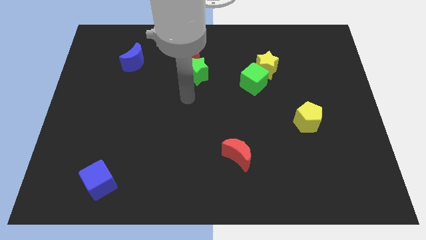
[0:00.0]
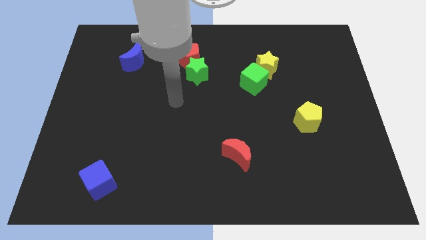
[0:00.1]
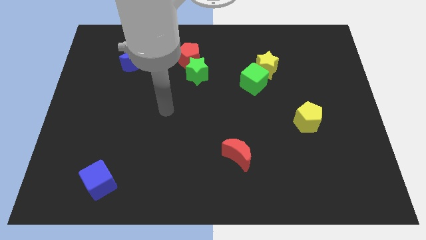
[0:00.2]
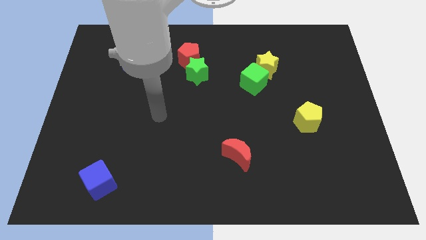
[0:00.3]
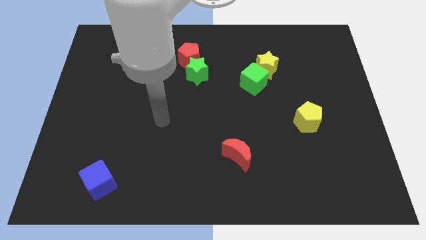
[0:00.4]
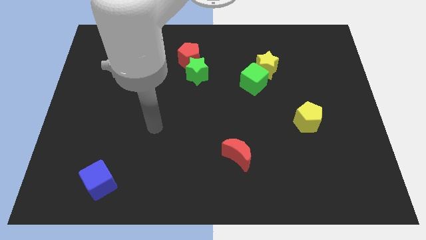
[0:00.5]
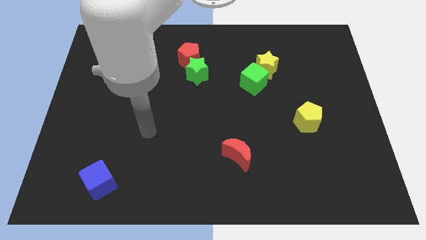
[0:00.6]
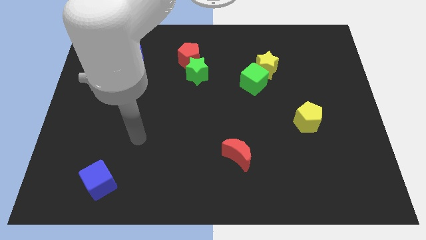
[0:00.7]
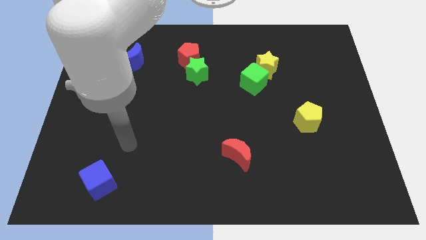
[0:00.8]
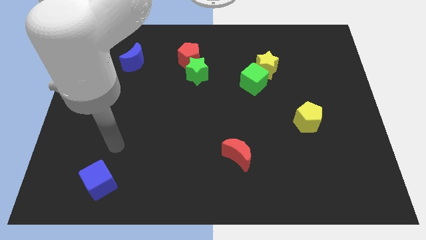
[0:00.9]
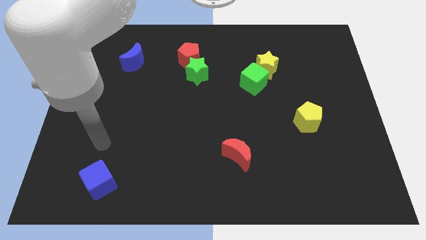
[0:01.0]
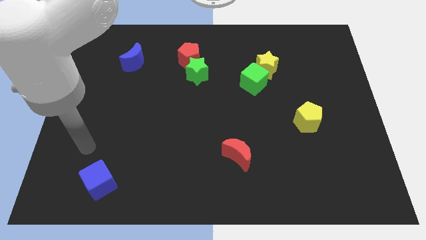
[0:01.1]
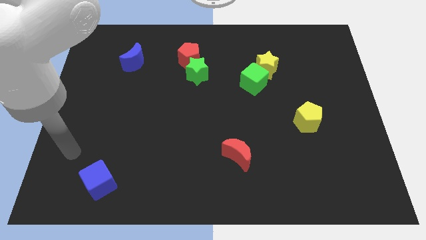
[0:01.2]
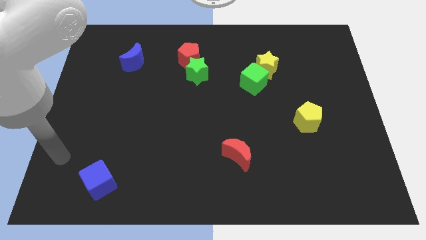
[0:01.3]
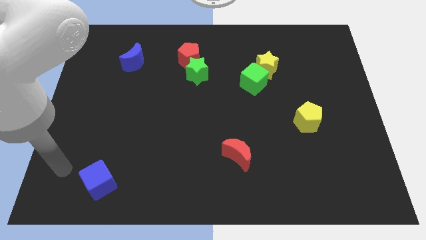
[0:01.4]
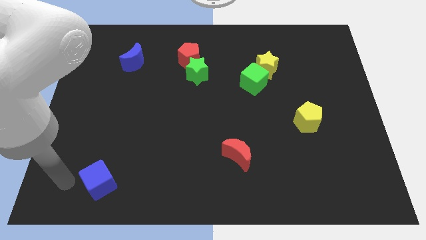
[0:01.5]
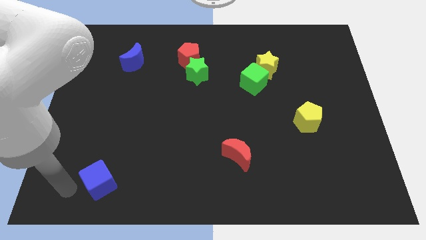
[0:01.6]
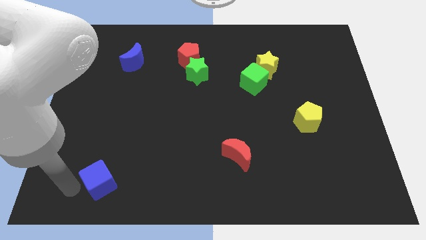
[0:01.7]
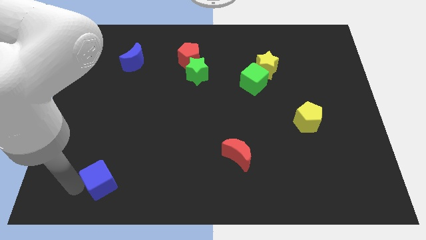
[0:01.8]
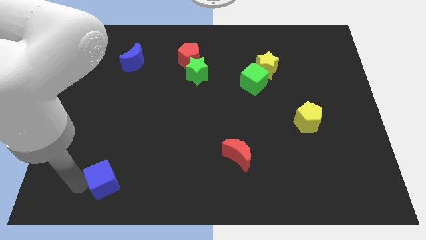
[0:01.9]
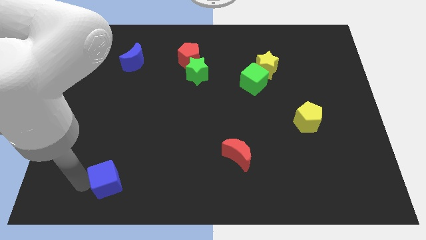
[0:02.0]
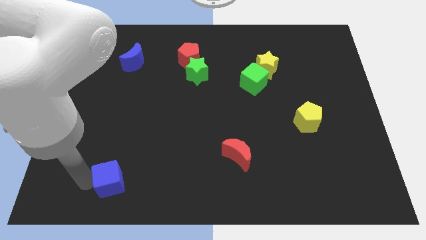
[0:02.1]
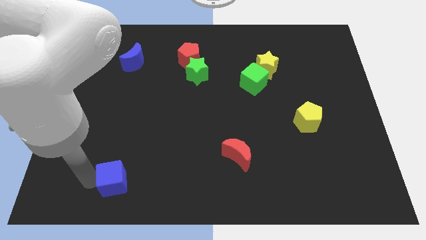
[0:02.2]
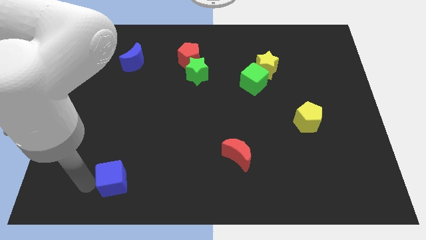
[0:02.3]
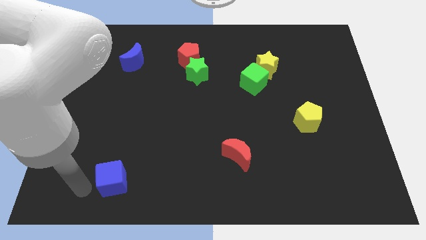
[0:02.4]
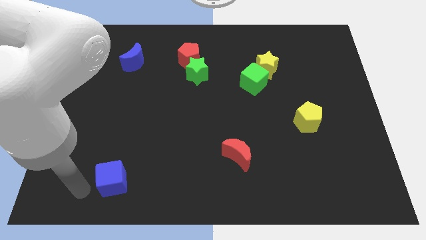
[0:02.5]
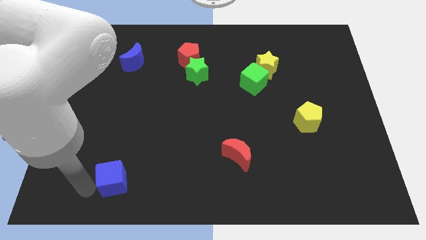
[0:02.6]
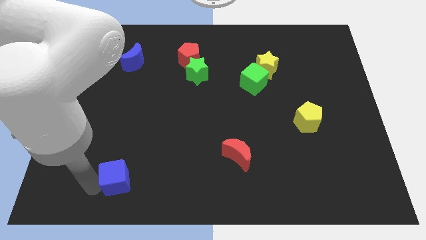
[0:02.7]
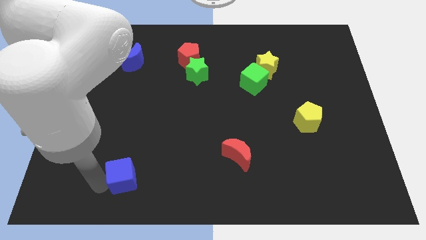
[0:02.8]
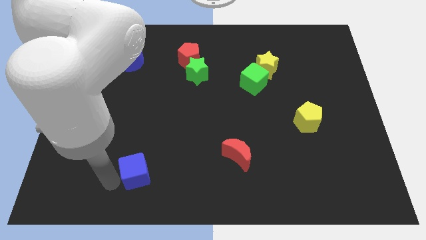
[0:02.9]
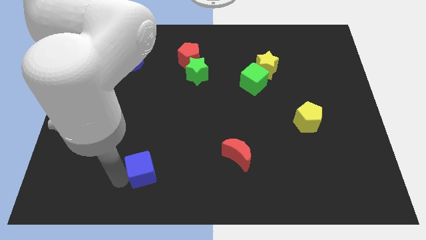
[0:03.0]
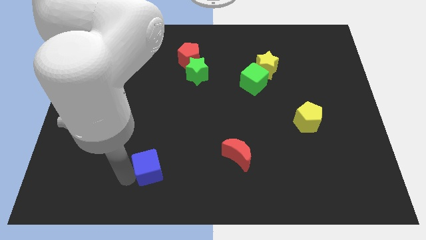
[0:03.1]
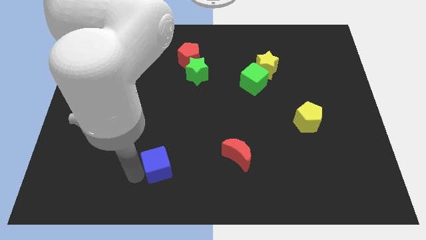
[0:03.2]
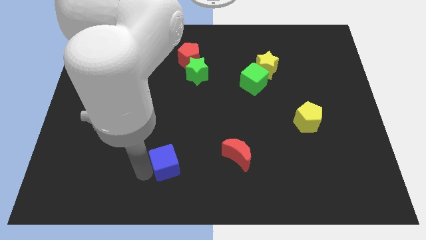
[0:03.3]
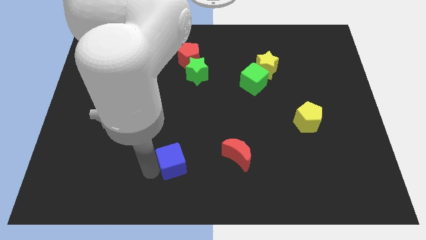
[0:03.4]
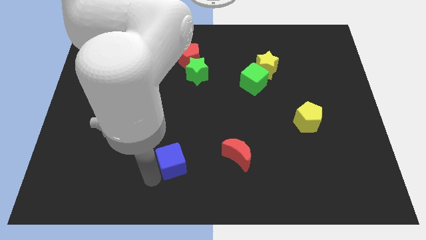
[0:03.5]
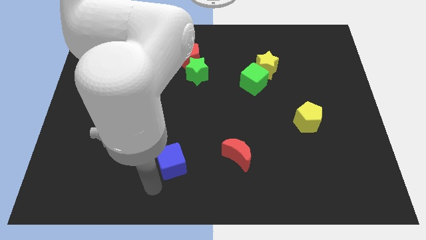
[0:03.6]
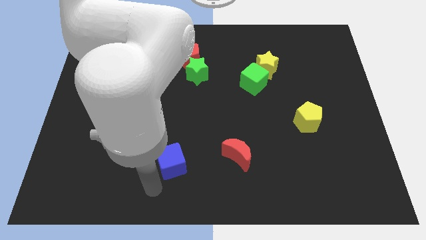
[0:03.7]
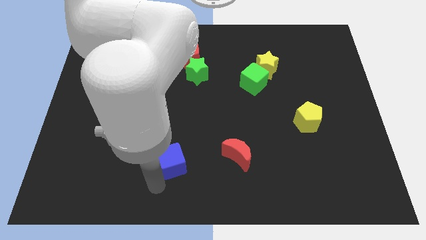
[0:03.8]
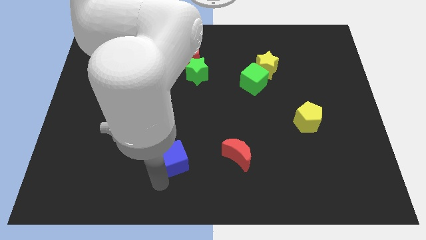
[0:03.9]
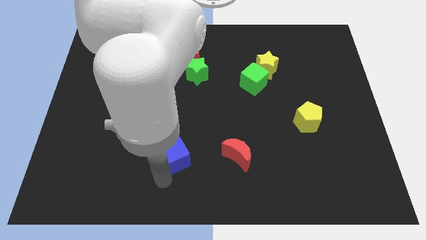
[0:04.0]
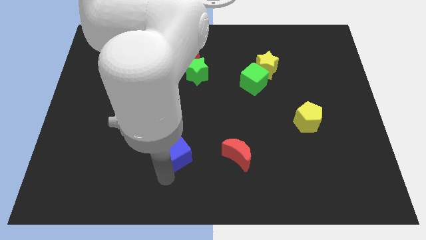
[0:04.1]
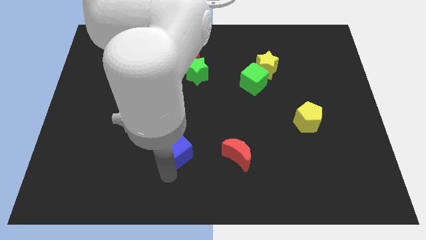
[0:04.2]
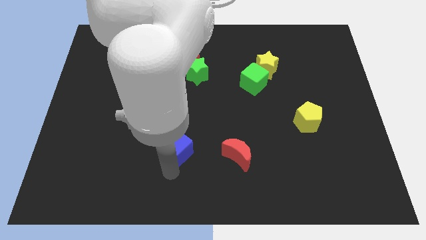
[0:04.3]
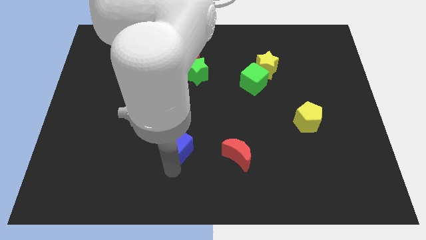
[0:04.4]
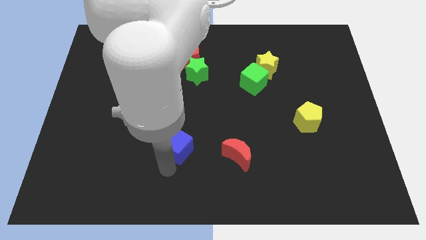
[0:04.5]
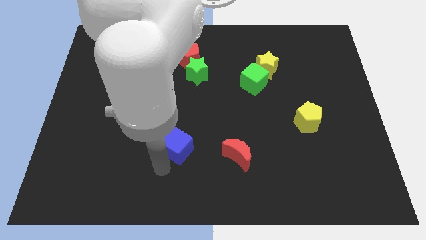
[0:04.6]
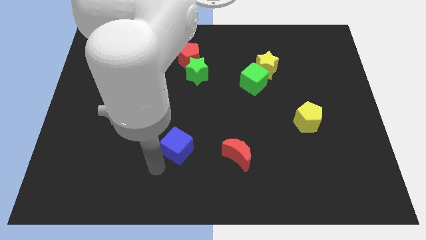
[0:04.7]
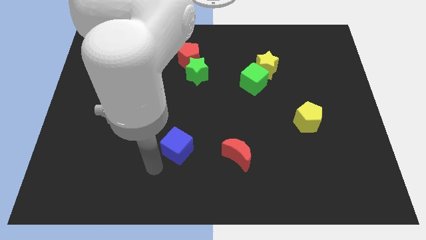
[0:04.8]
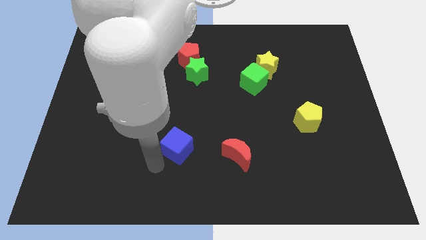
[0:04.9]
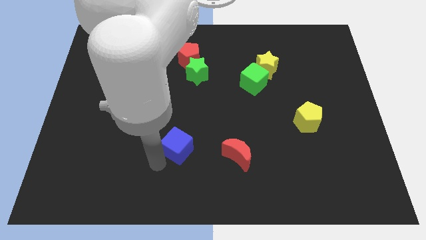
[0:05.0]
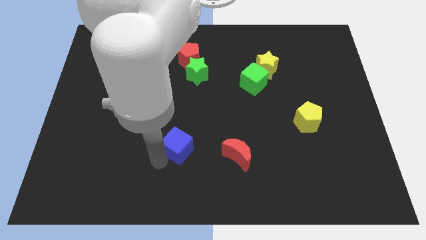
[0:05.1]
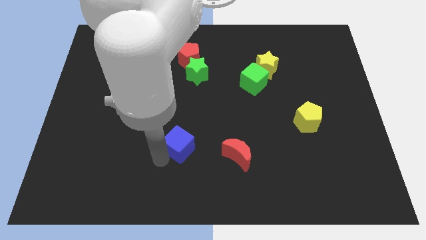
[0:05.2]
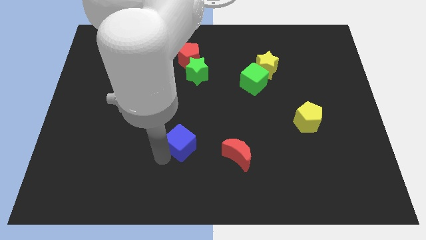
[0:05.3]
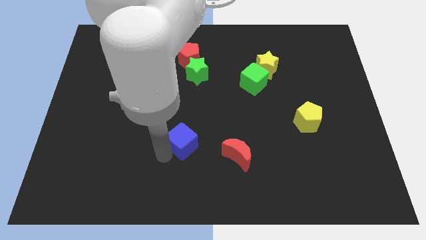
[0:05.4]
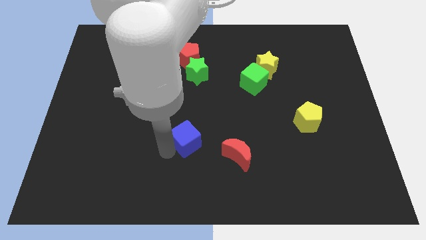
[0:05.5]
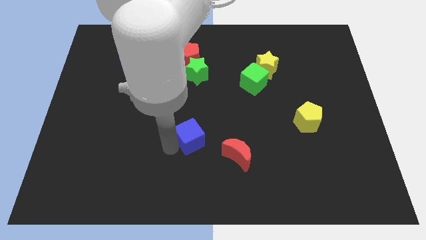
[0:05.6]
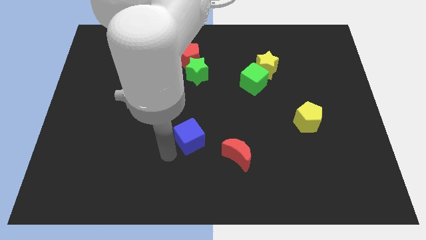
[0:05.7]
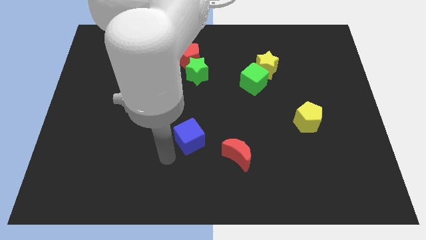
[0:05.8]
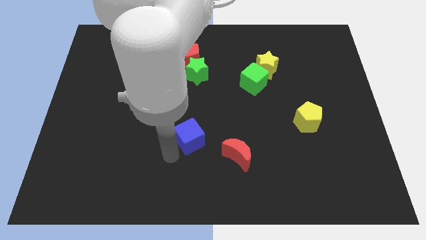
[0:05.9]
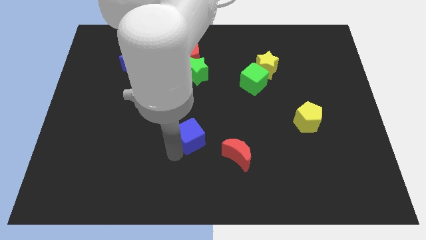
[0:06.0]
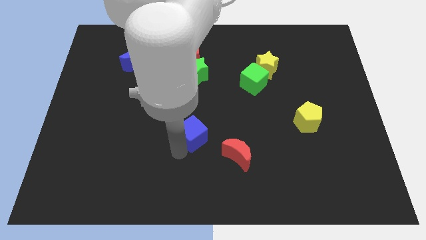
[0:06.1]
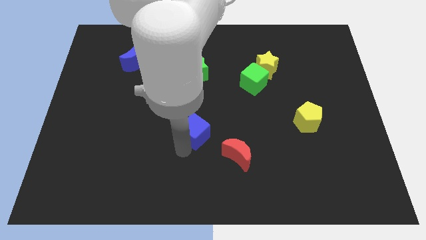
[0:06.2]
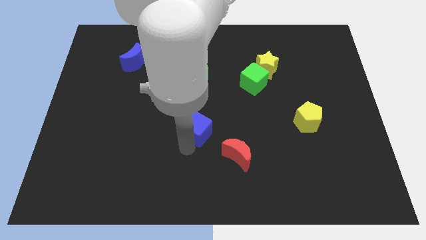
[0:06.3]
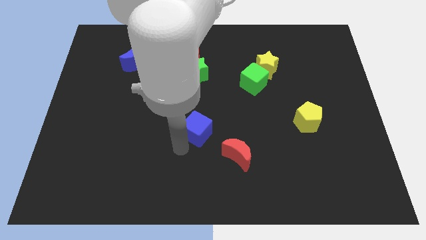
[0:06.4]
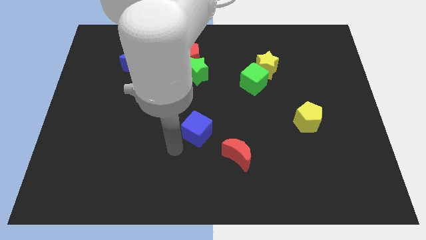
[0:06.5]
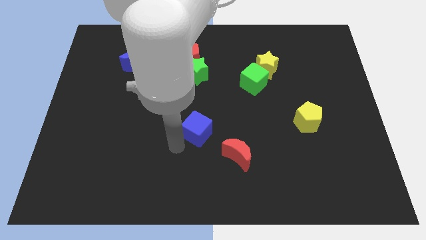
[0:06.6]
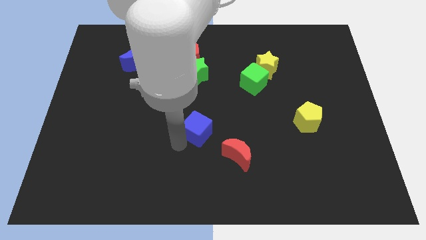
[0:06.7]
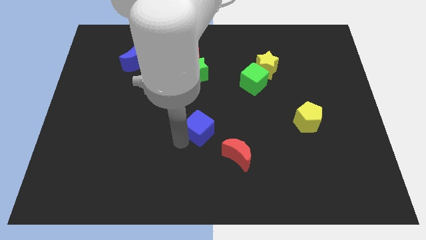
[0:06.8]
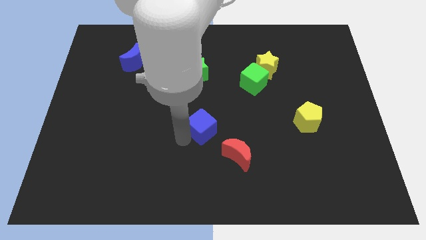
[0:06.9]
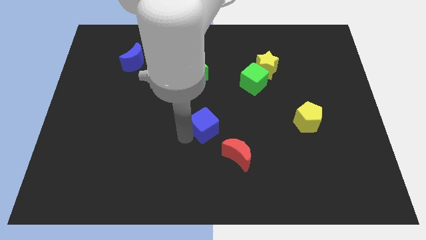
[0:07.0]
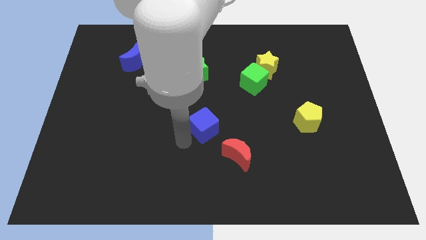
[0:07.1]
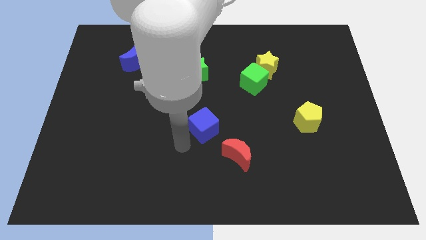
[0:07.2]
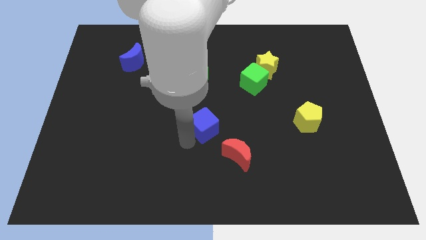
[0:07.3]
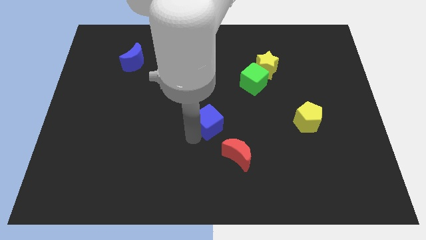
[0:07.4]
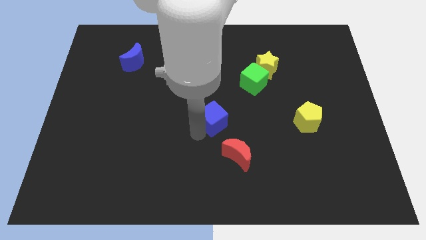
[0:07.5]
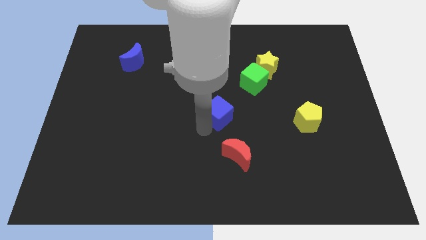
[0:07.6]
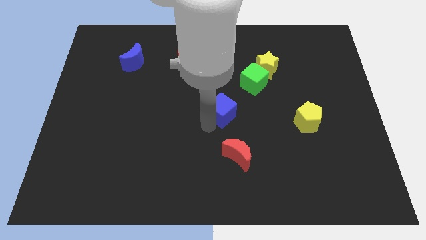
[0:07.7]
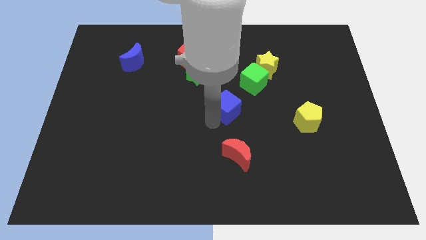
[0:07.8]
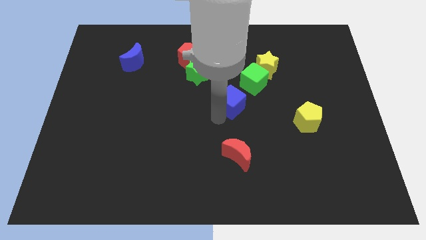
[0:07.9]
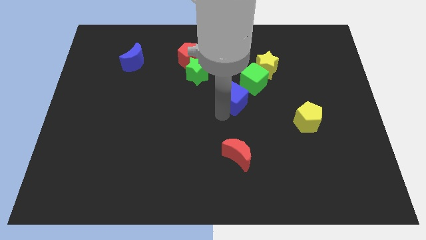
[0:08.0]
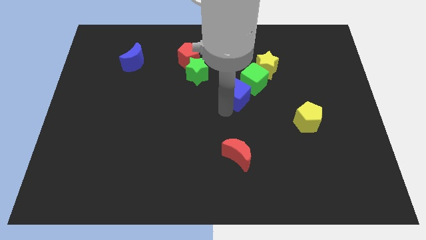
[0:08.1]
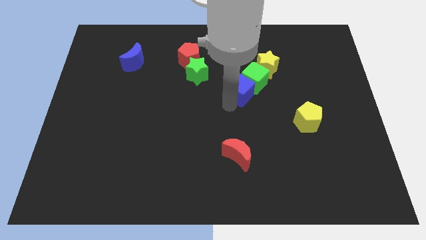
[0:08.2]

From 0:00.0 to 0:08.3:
slide the blue cube towards the green cube
